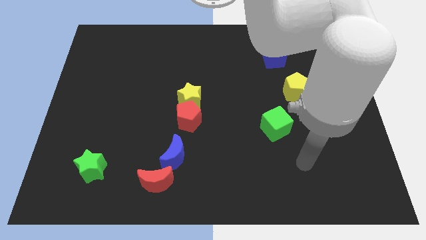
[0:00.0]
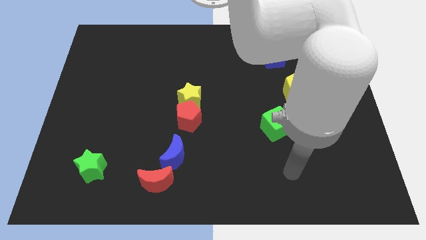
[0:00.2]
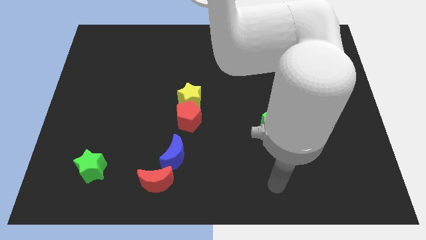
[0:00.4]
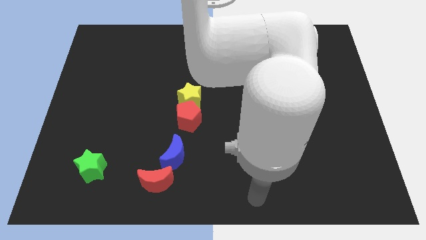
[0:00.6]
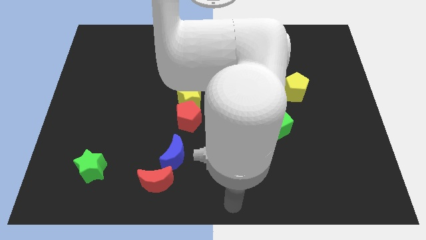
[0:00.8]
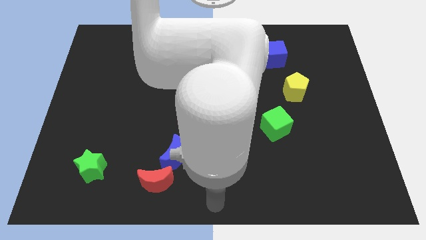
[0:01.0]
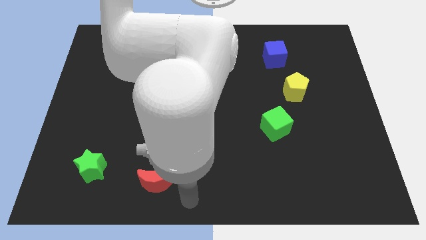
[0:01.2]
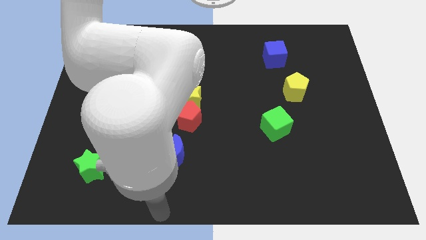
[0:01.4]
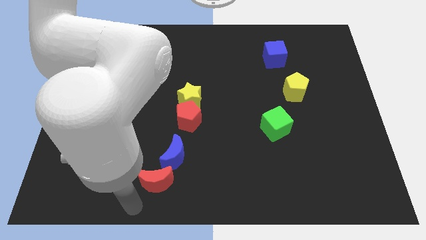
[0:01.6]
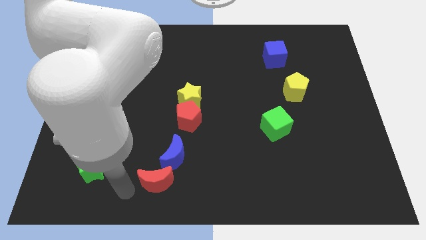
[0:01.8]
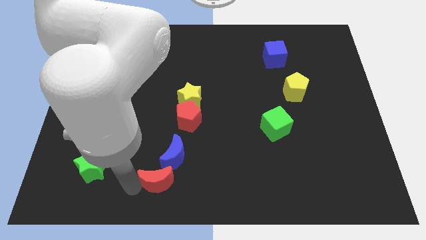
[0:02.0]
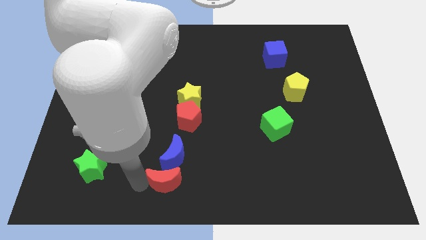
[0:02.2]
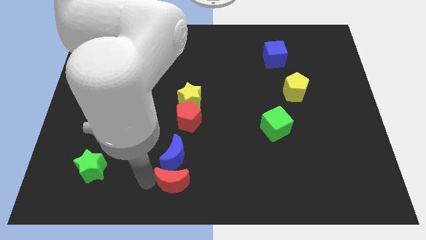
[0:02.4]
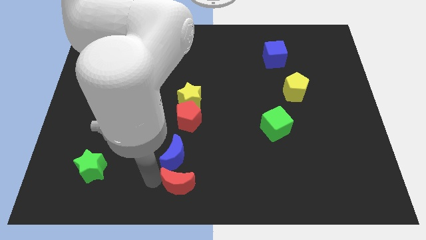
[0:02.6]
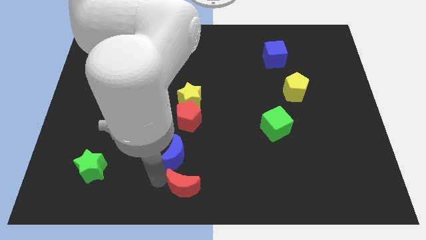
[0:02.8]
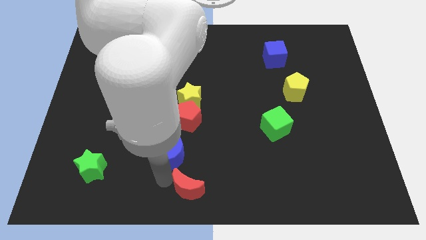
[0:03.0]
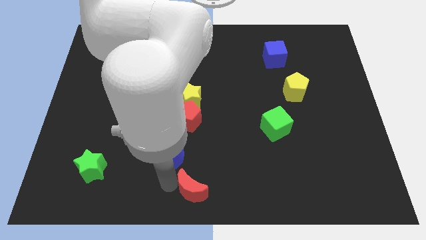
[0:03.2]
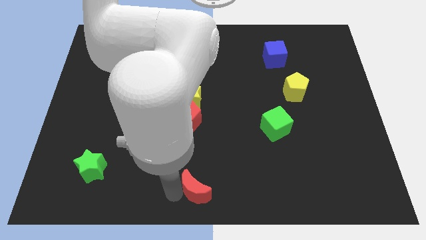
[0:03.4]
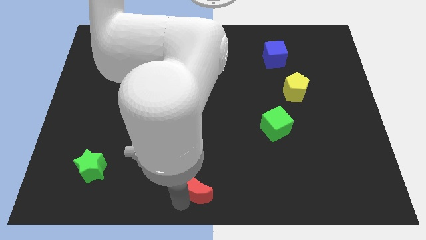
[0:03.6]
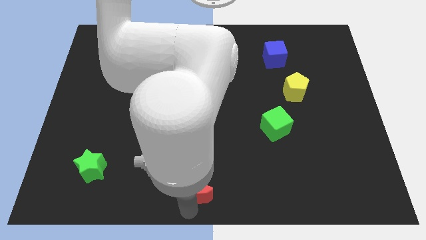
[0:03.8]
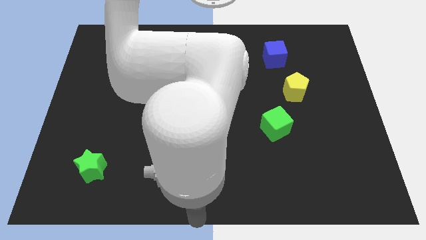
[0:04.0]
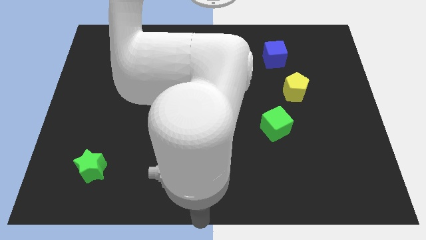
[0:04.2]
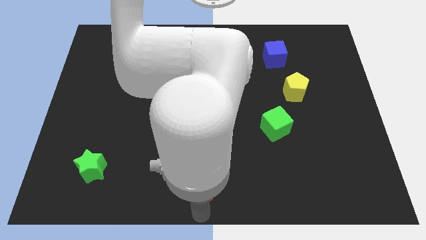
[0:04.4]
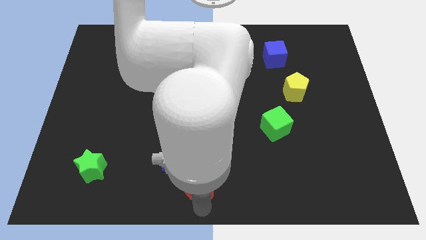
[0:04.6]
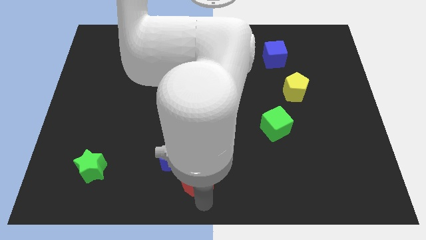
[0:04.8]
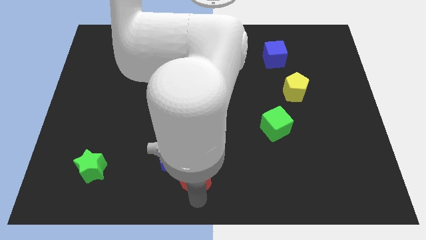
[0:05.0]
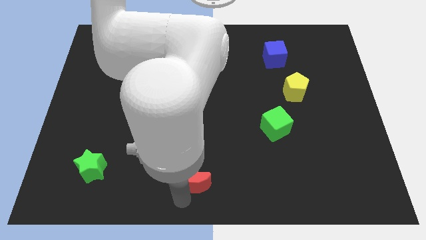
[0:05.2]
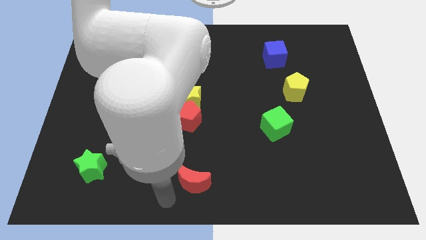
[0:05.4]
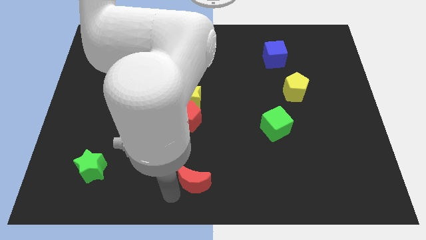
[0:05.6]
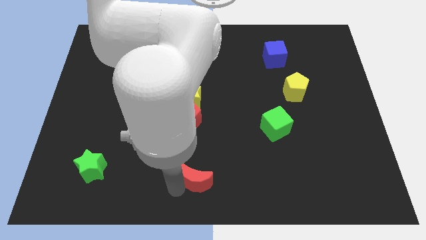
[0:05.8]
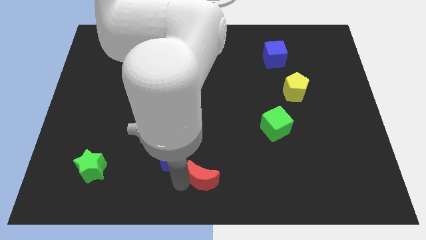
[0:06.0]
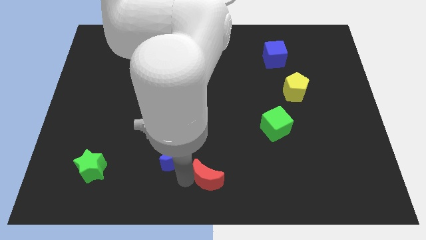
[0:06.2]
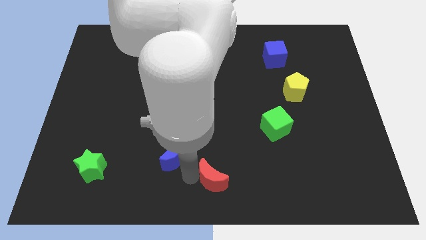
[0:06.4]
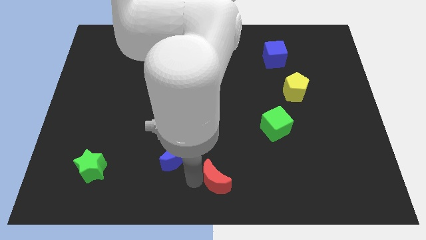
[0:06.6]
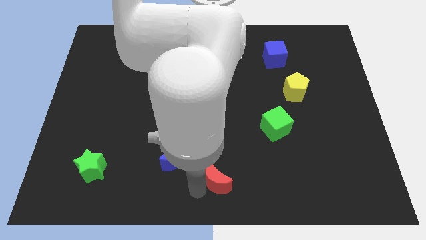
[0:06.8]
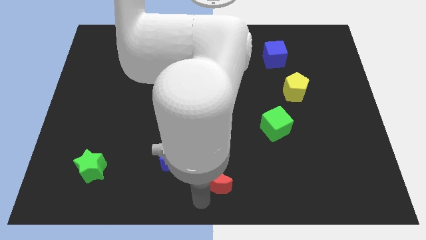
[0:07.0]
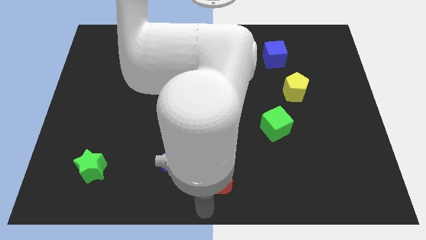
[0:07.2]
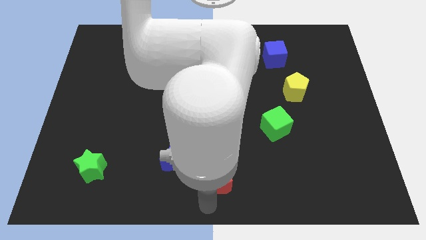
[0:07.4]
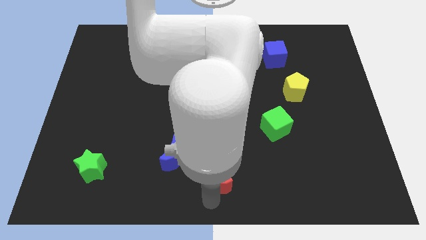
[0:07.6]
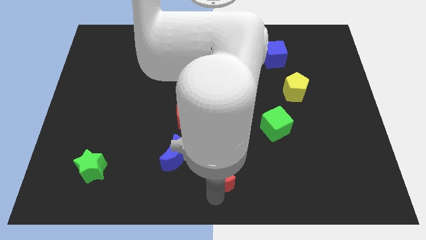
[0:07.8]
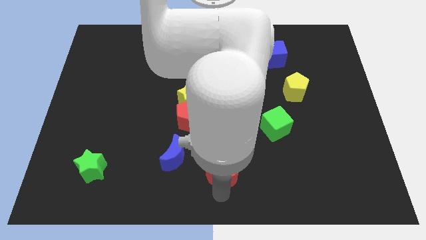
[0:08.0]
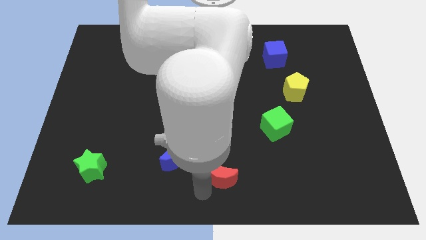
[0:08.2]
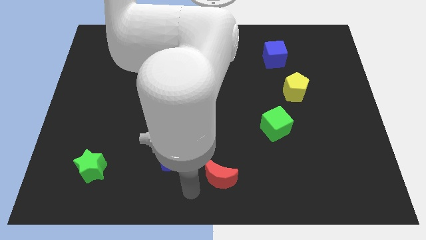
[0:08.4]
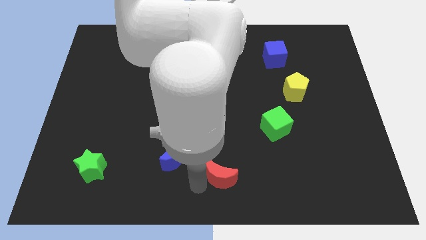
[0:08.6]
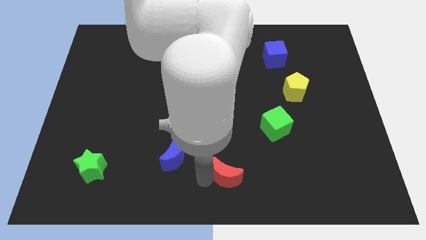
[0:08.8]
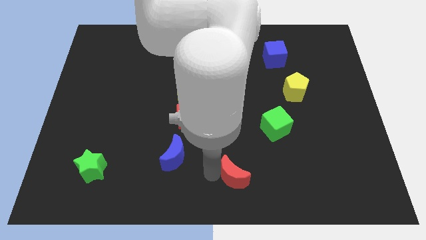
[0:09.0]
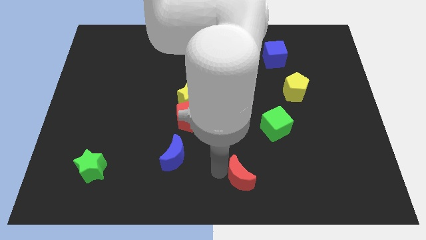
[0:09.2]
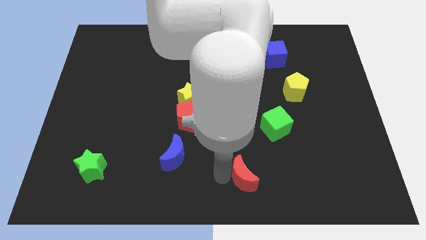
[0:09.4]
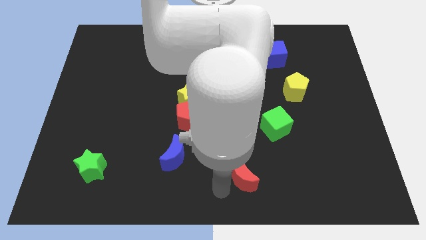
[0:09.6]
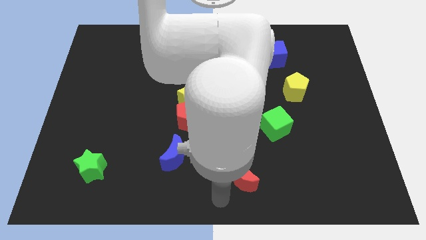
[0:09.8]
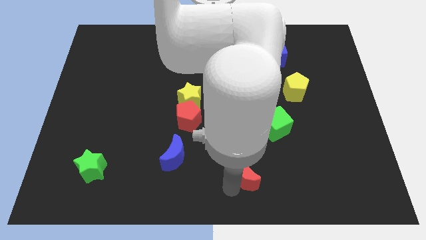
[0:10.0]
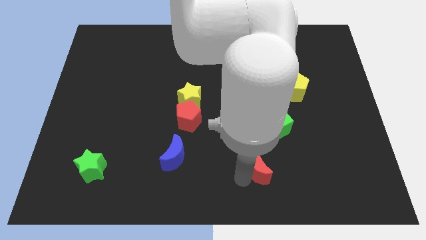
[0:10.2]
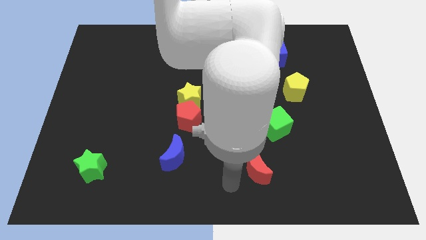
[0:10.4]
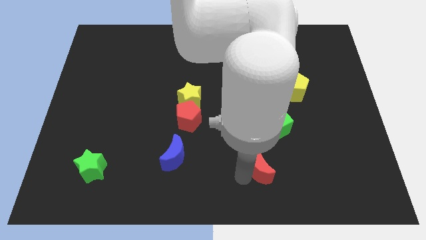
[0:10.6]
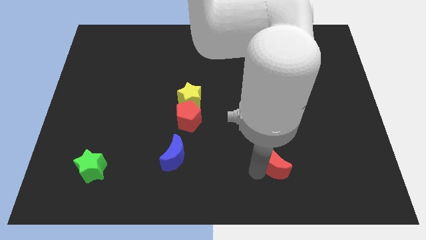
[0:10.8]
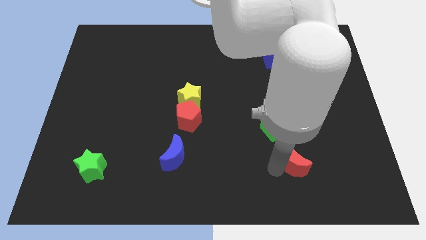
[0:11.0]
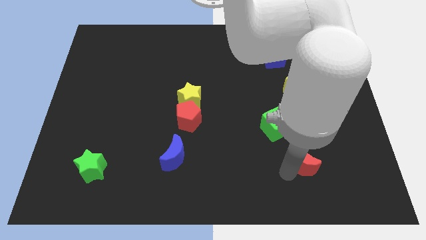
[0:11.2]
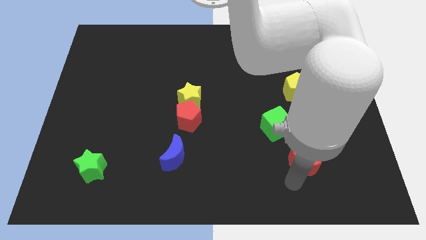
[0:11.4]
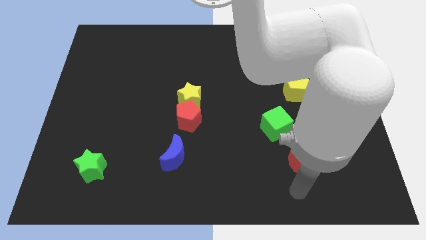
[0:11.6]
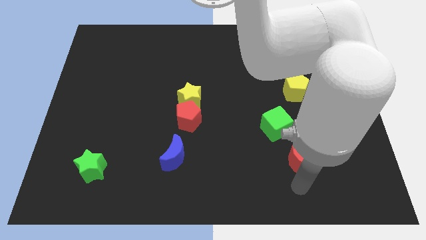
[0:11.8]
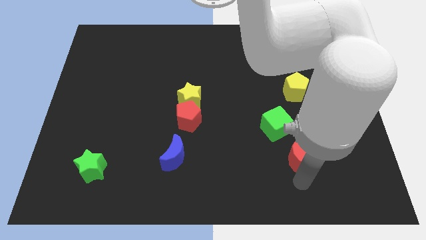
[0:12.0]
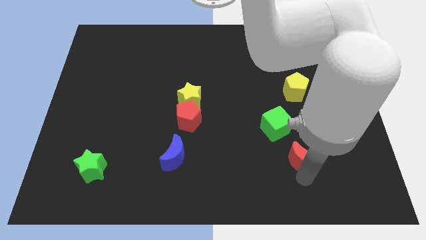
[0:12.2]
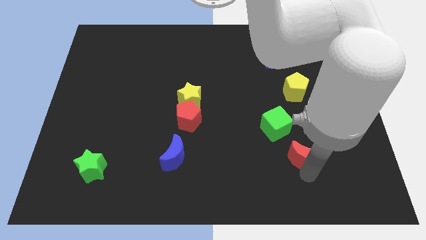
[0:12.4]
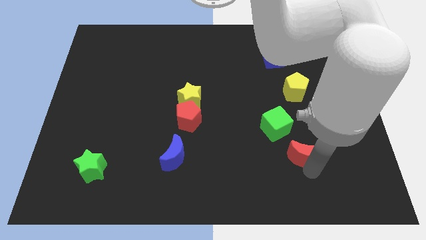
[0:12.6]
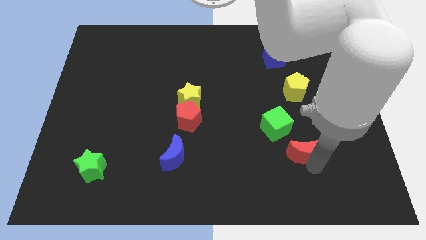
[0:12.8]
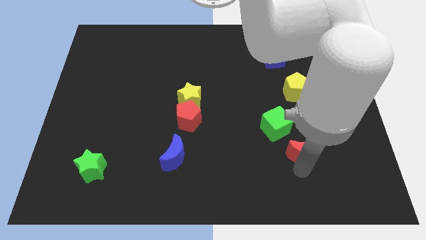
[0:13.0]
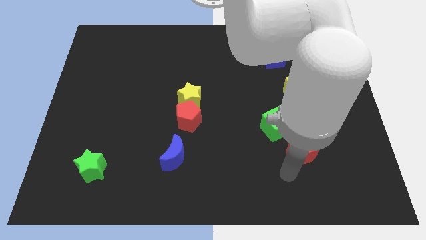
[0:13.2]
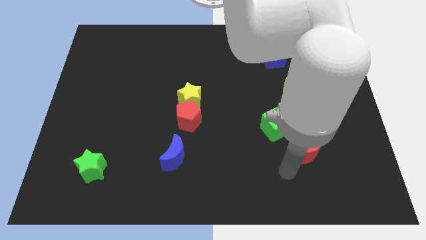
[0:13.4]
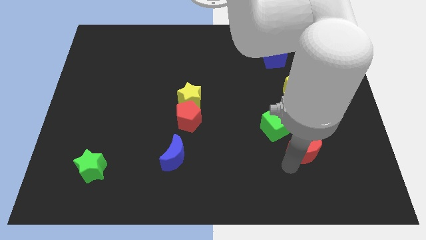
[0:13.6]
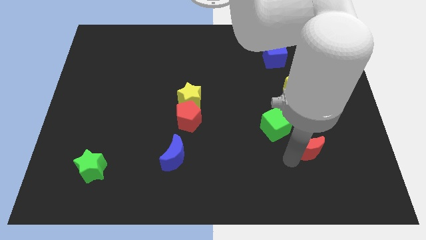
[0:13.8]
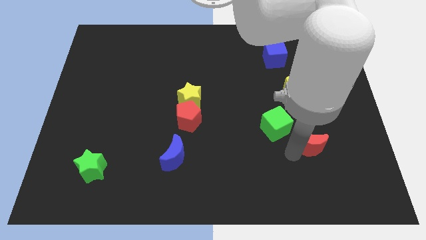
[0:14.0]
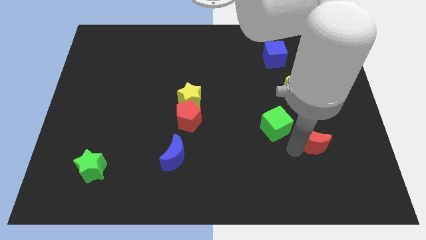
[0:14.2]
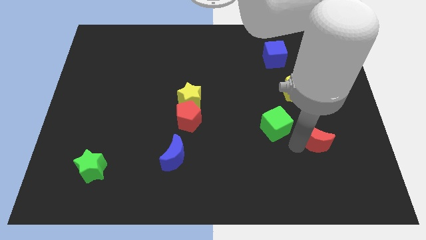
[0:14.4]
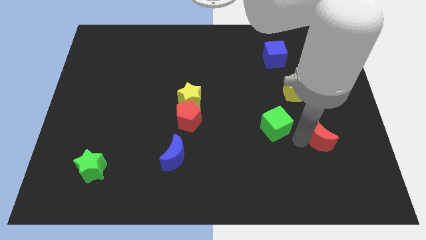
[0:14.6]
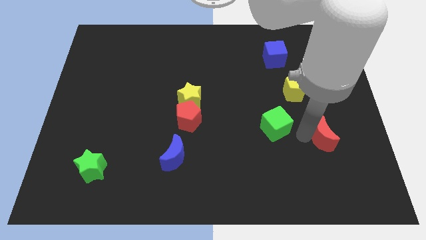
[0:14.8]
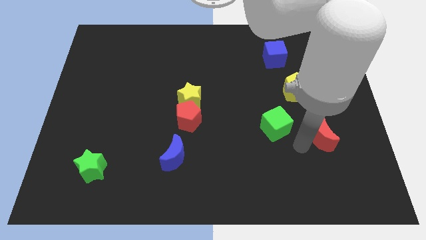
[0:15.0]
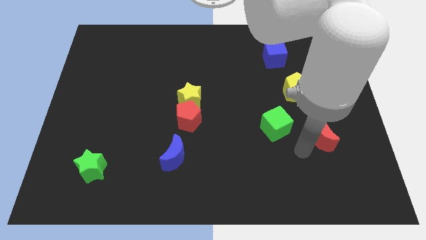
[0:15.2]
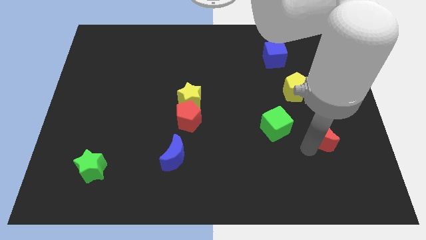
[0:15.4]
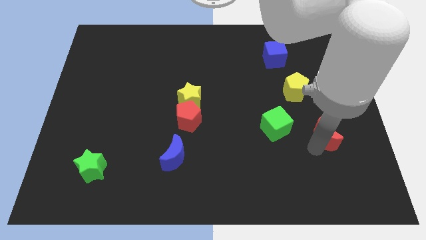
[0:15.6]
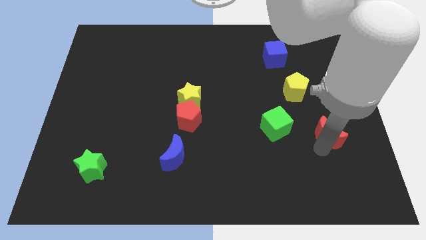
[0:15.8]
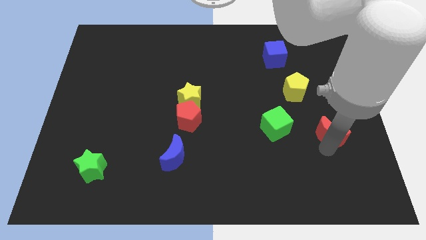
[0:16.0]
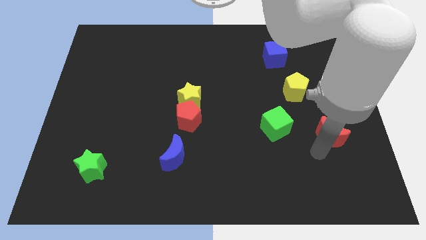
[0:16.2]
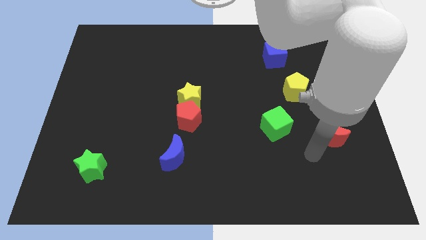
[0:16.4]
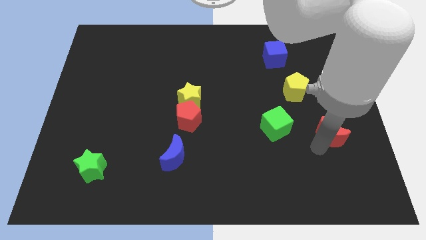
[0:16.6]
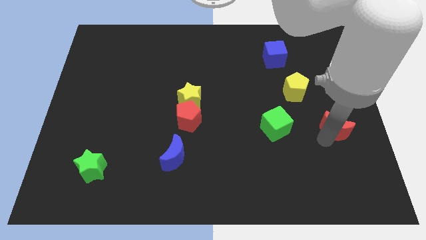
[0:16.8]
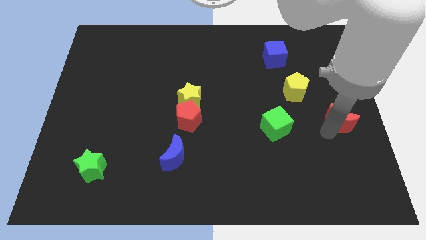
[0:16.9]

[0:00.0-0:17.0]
move the red moon to the center right
